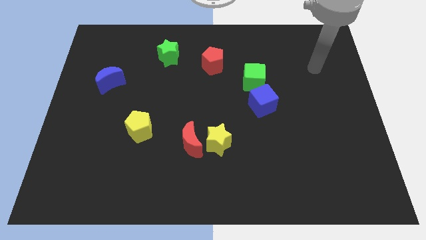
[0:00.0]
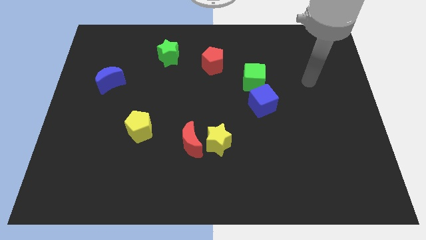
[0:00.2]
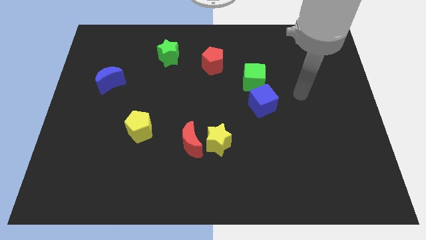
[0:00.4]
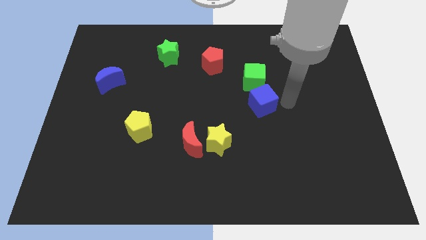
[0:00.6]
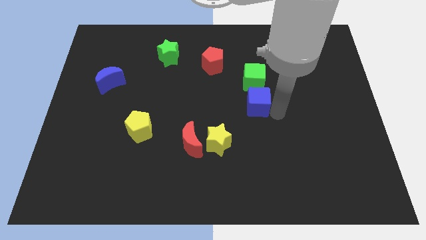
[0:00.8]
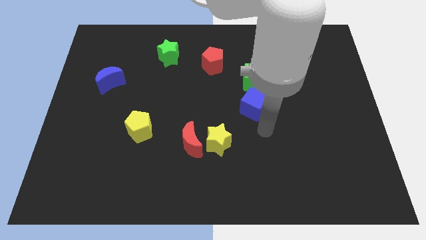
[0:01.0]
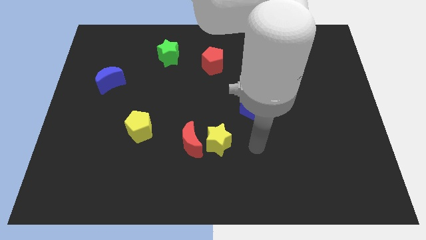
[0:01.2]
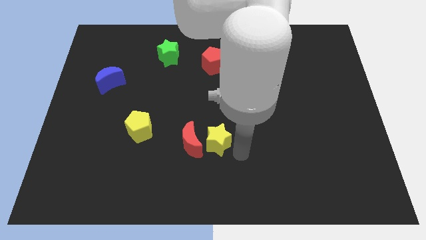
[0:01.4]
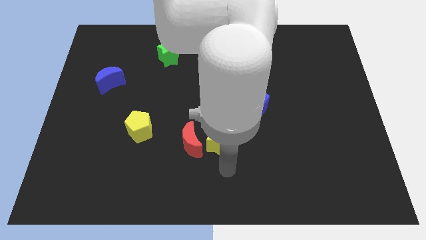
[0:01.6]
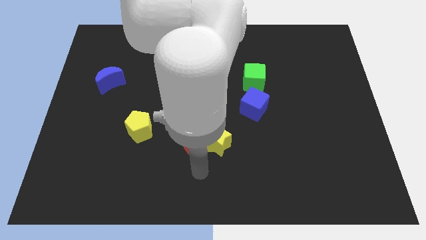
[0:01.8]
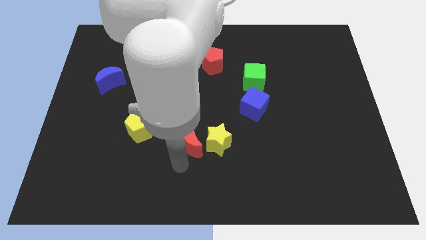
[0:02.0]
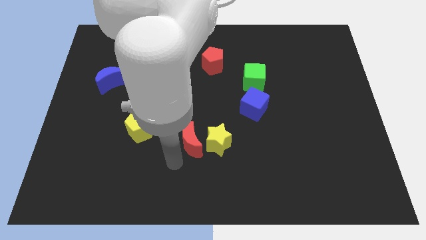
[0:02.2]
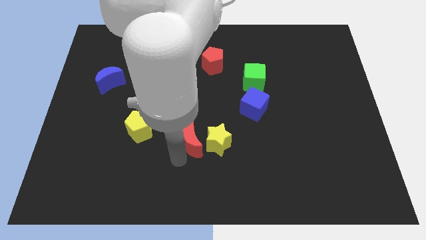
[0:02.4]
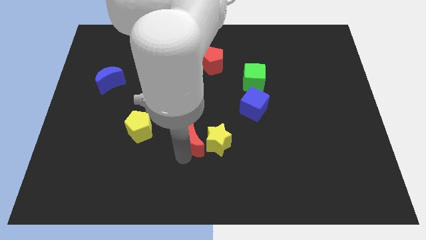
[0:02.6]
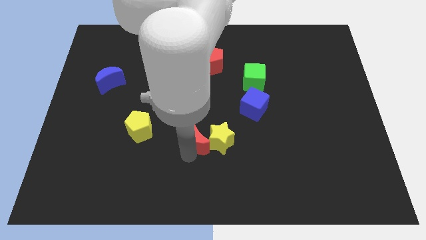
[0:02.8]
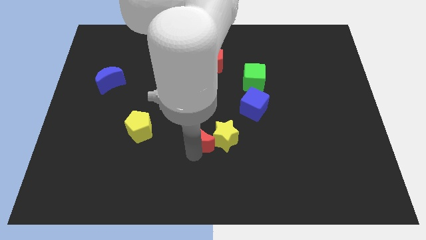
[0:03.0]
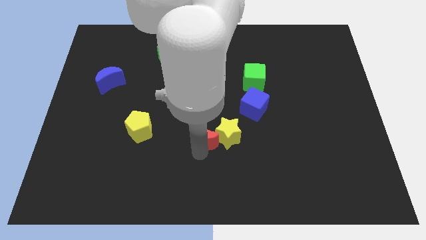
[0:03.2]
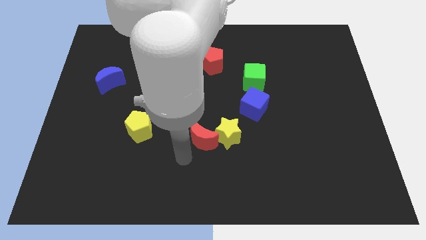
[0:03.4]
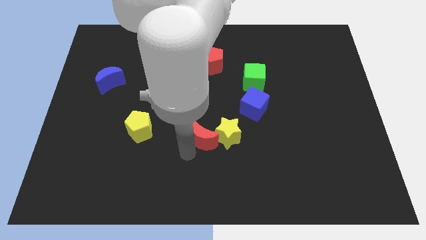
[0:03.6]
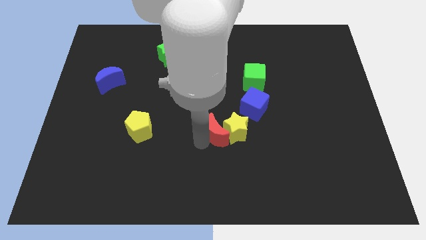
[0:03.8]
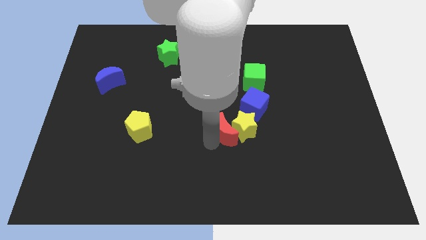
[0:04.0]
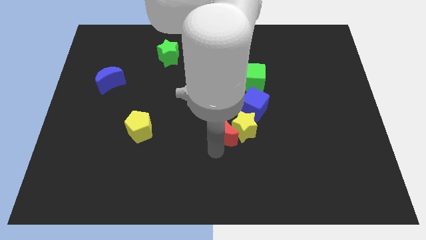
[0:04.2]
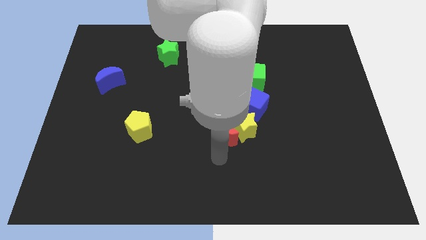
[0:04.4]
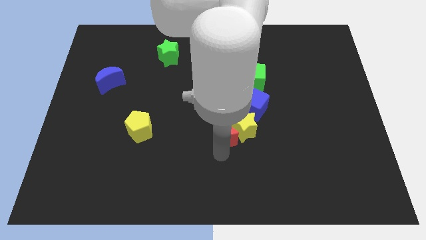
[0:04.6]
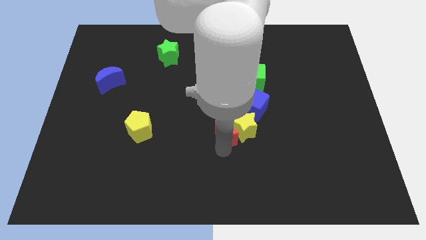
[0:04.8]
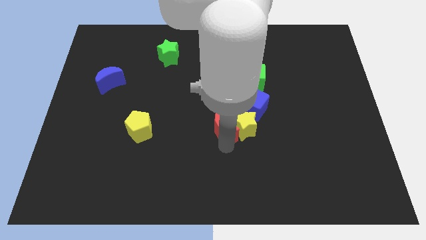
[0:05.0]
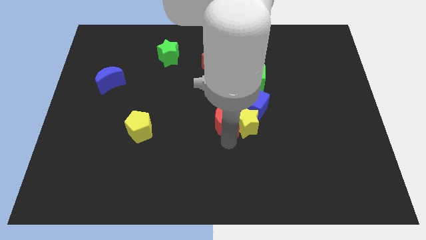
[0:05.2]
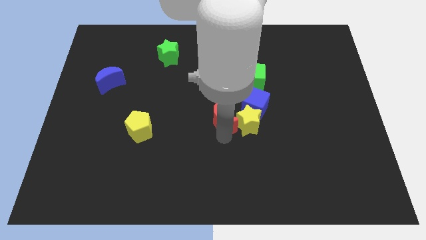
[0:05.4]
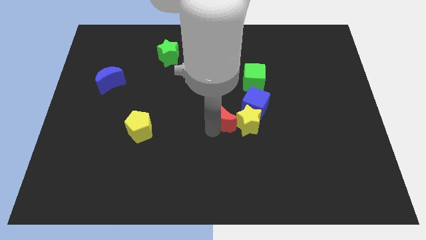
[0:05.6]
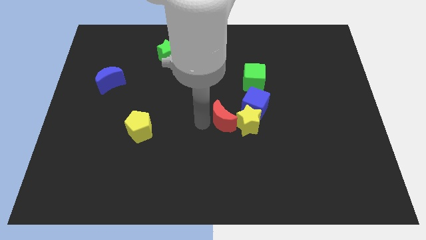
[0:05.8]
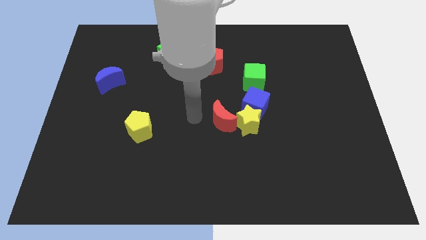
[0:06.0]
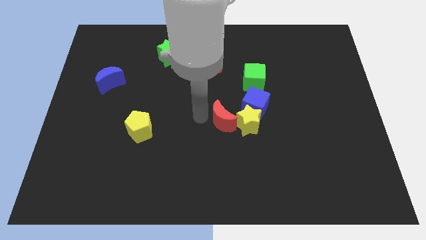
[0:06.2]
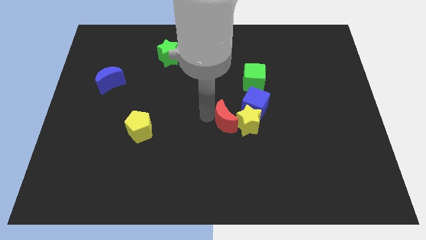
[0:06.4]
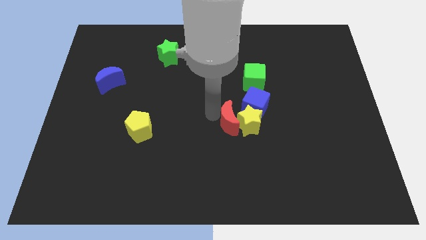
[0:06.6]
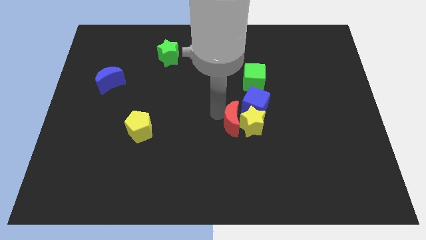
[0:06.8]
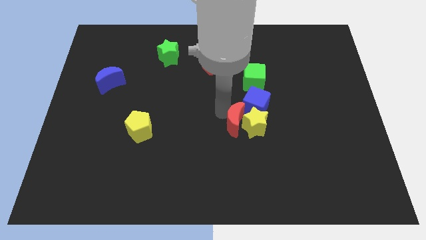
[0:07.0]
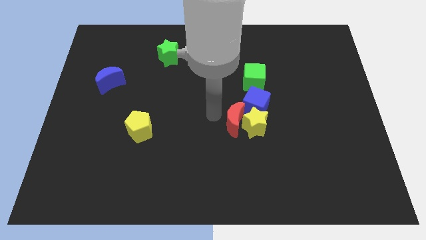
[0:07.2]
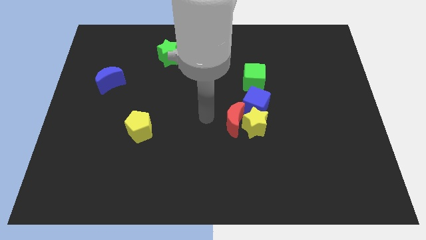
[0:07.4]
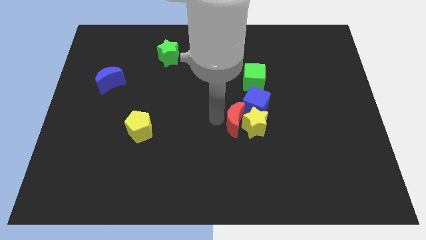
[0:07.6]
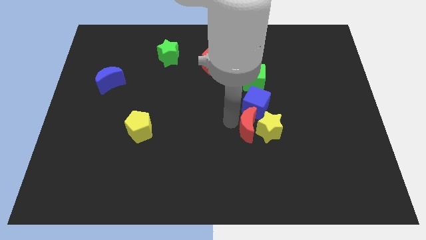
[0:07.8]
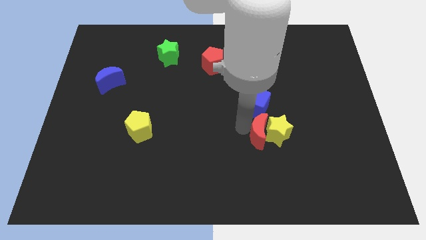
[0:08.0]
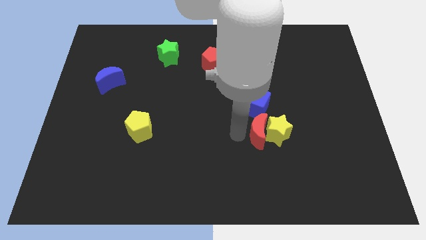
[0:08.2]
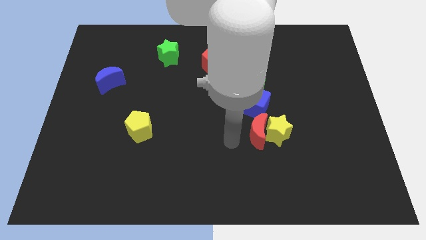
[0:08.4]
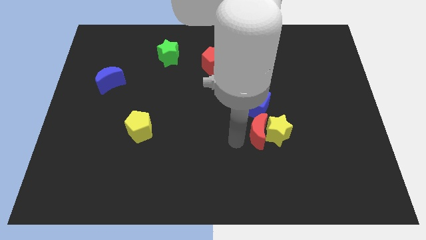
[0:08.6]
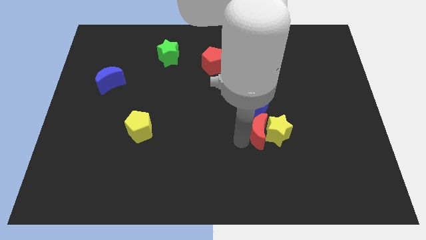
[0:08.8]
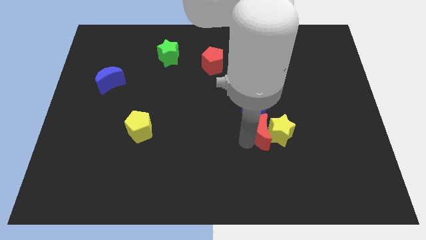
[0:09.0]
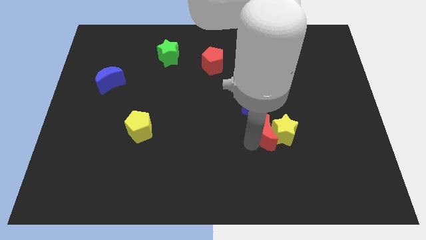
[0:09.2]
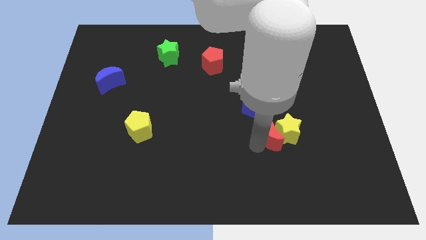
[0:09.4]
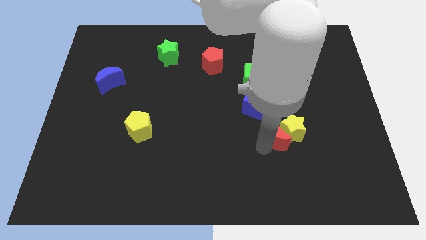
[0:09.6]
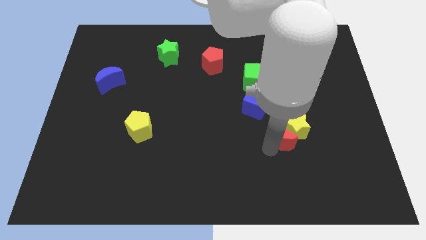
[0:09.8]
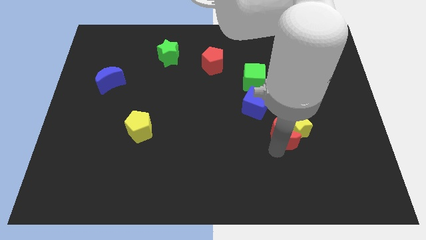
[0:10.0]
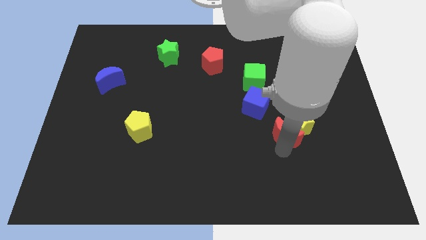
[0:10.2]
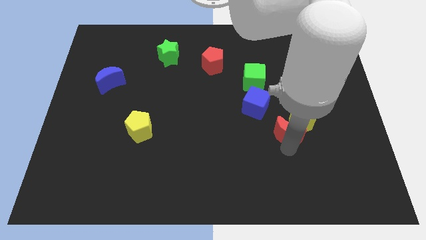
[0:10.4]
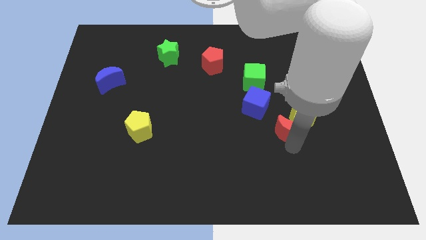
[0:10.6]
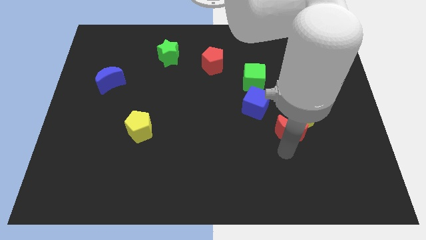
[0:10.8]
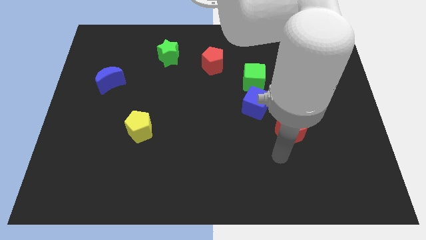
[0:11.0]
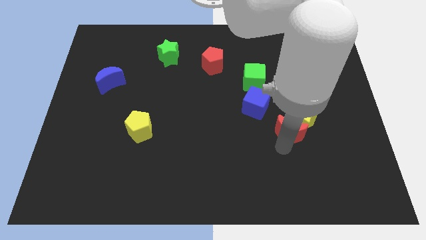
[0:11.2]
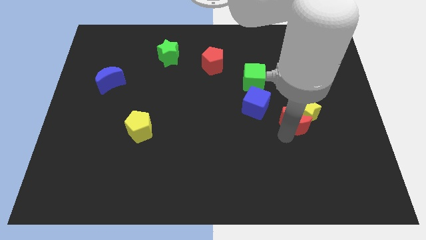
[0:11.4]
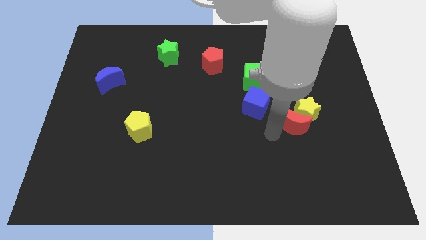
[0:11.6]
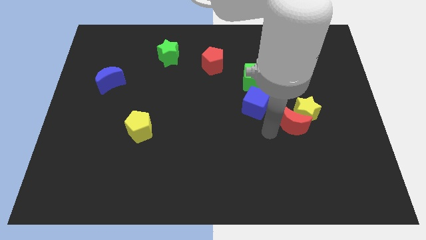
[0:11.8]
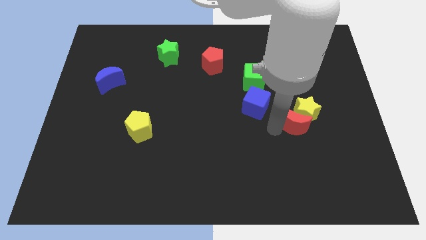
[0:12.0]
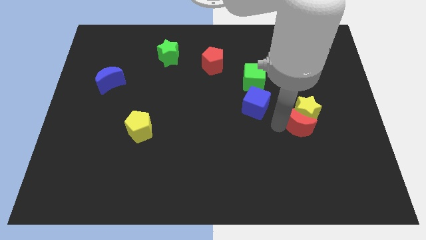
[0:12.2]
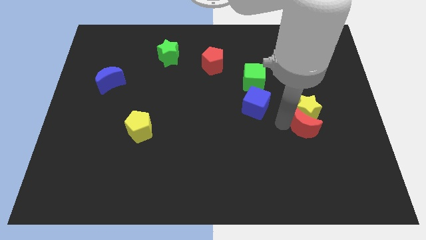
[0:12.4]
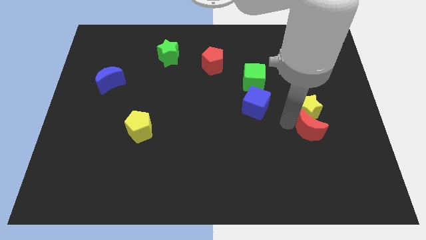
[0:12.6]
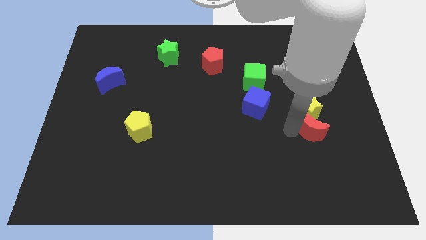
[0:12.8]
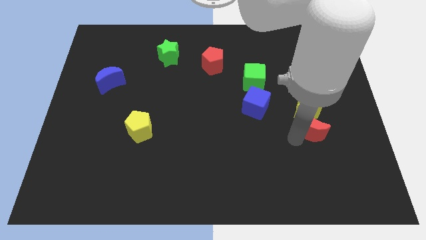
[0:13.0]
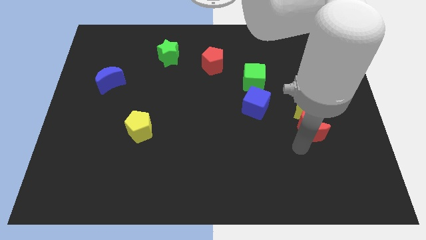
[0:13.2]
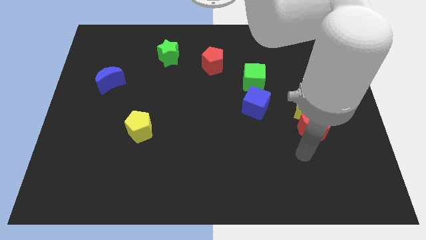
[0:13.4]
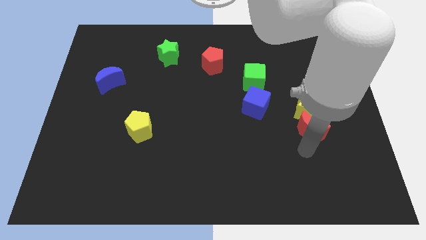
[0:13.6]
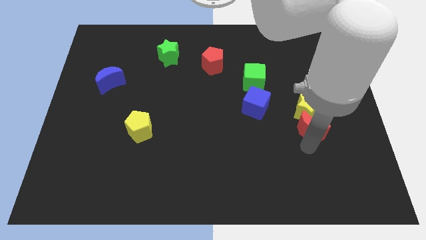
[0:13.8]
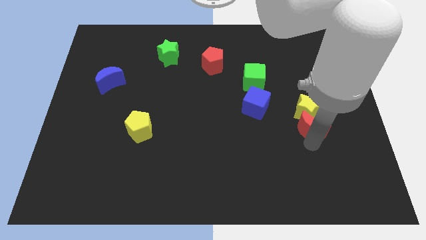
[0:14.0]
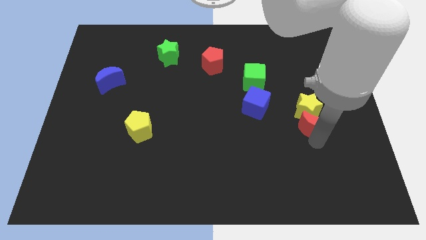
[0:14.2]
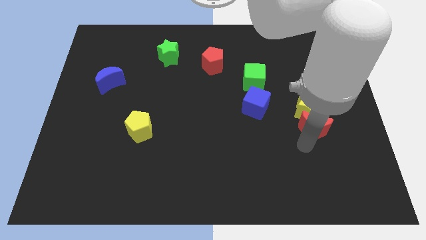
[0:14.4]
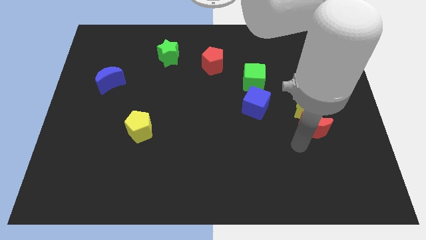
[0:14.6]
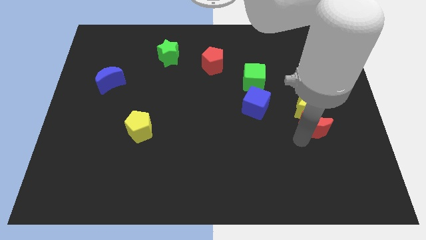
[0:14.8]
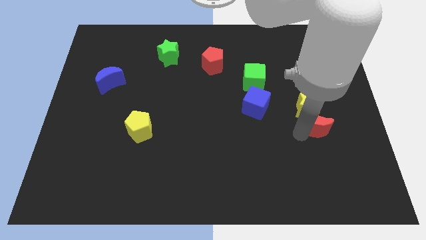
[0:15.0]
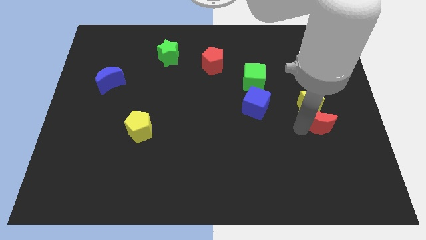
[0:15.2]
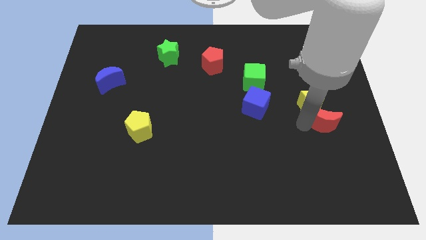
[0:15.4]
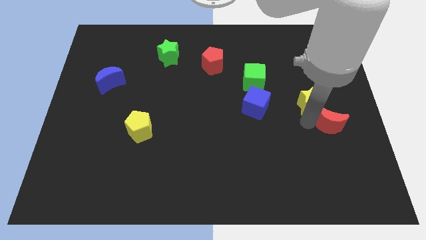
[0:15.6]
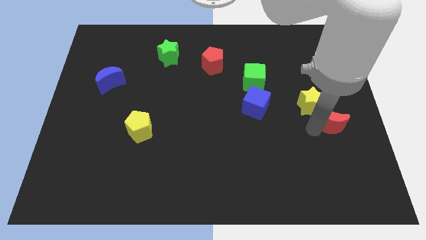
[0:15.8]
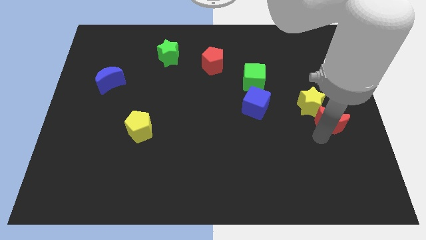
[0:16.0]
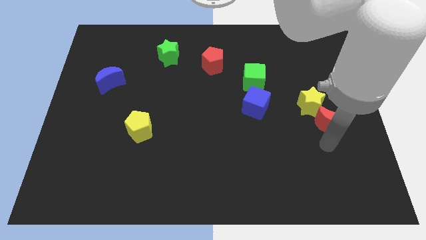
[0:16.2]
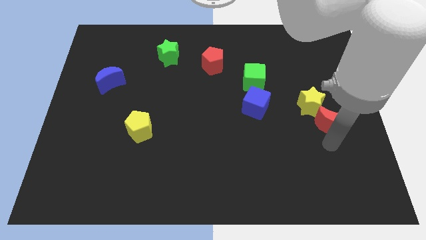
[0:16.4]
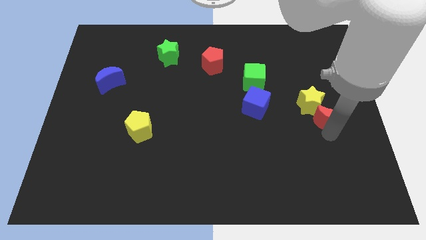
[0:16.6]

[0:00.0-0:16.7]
slide the red moon to the right side
